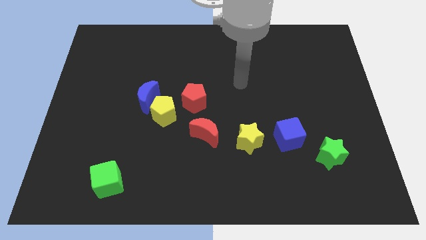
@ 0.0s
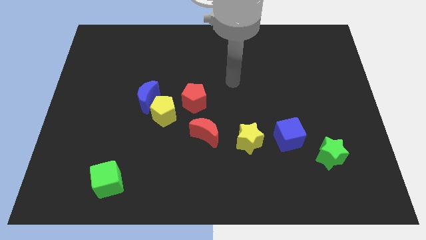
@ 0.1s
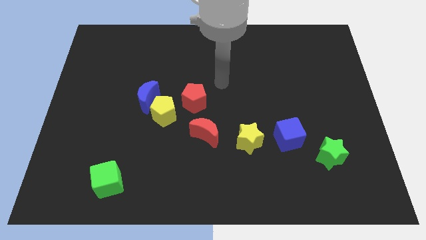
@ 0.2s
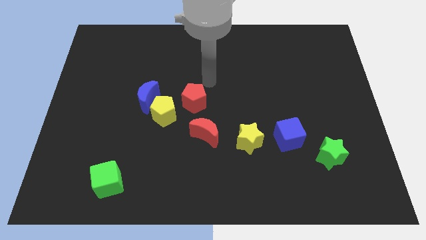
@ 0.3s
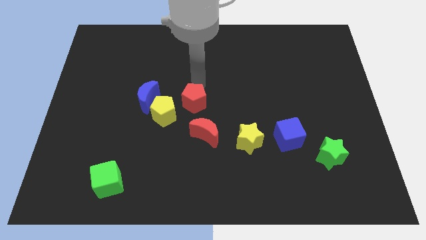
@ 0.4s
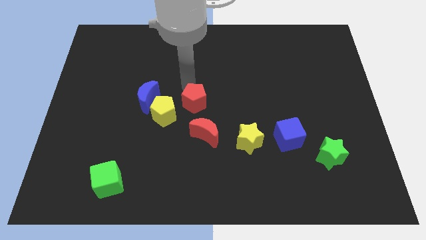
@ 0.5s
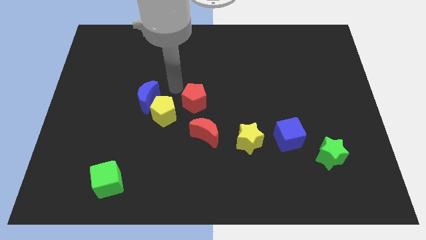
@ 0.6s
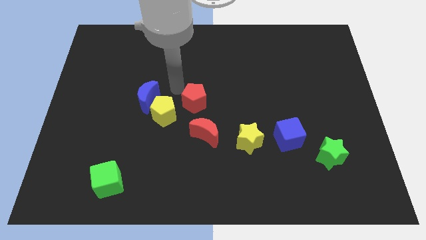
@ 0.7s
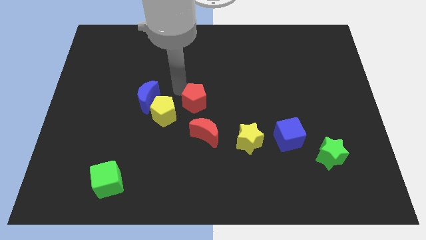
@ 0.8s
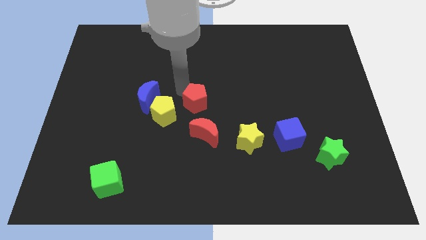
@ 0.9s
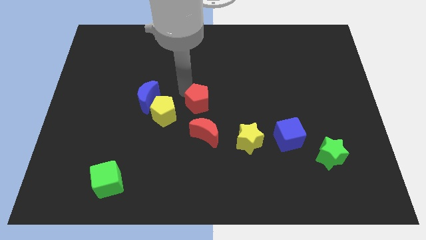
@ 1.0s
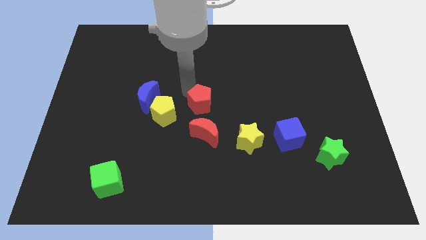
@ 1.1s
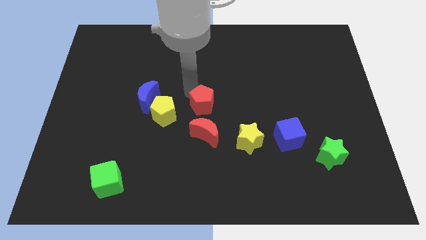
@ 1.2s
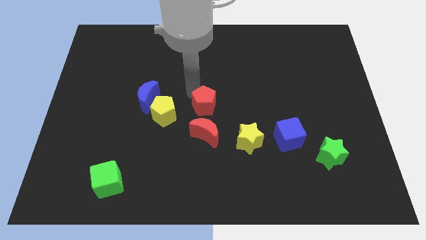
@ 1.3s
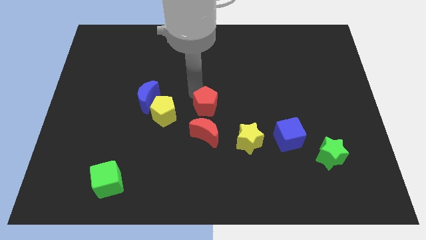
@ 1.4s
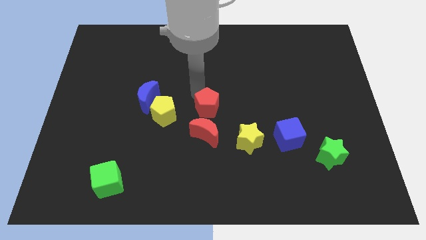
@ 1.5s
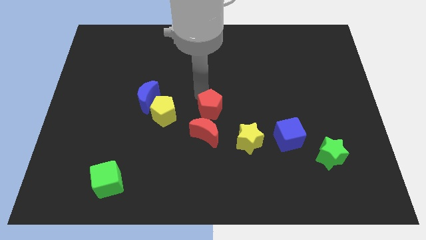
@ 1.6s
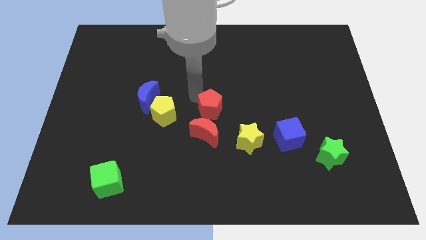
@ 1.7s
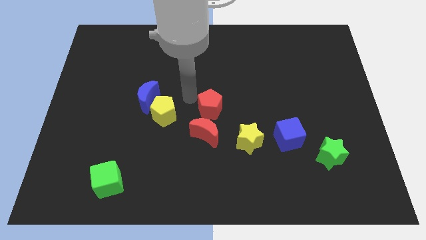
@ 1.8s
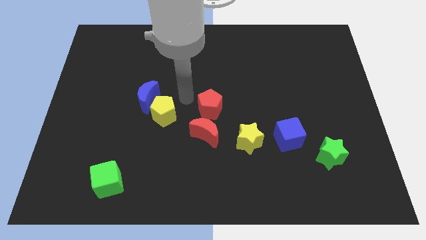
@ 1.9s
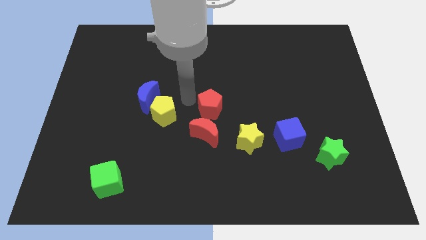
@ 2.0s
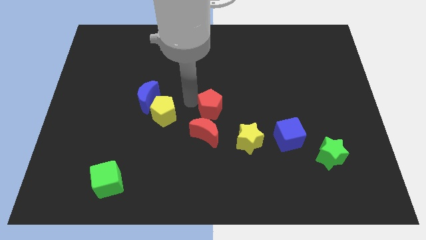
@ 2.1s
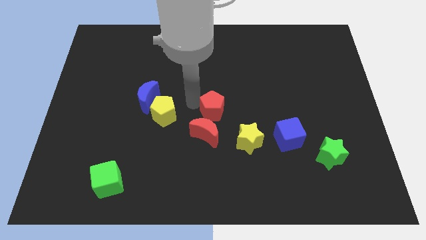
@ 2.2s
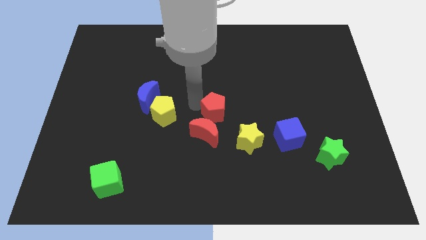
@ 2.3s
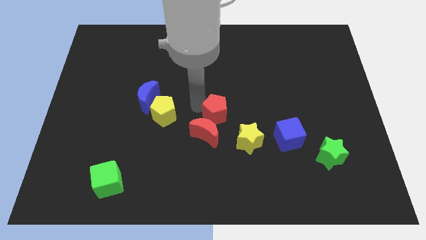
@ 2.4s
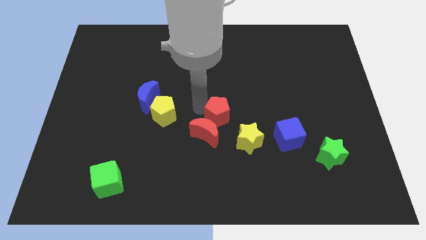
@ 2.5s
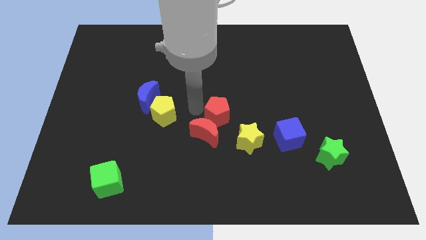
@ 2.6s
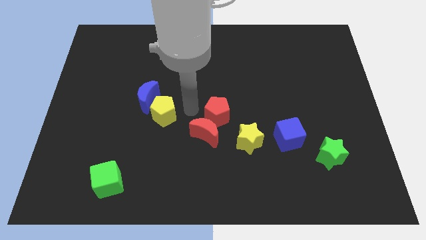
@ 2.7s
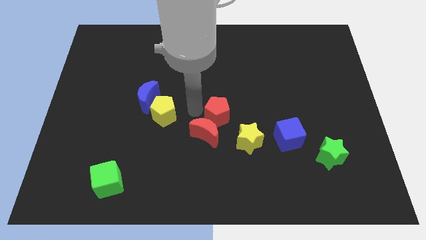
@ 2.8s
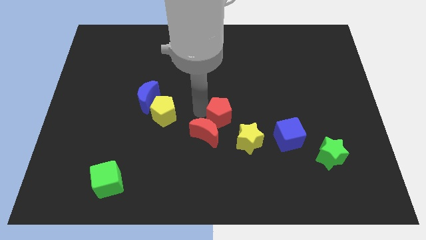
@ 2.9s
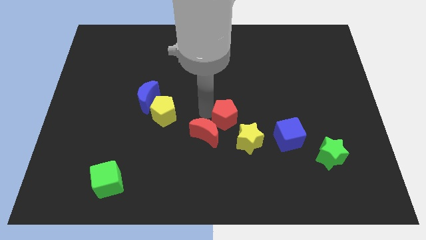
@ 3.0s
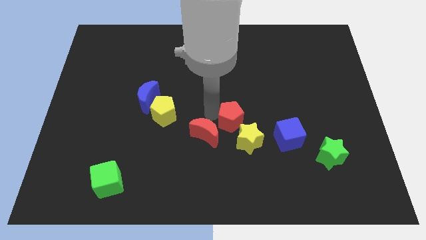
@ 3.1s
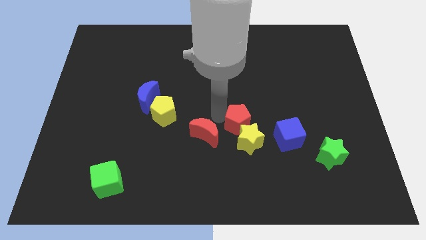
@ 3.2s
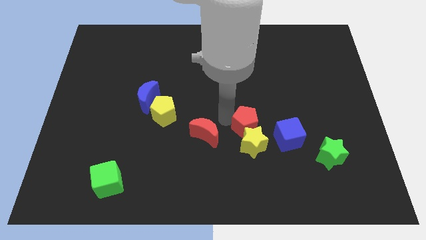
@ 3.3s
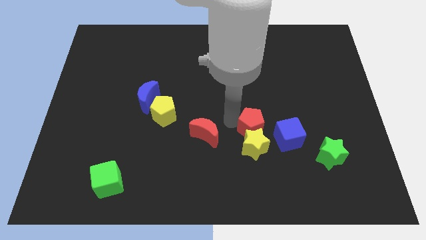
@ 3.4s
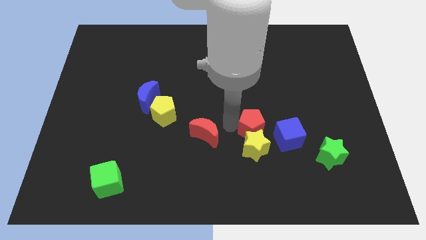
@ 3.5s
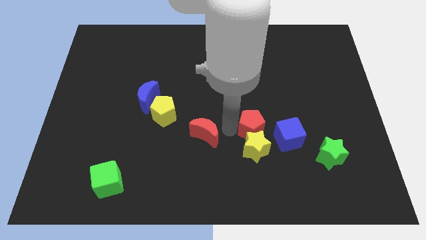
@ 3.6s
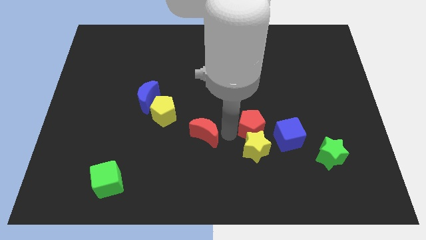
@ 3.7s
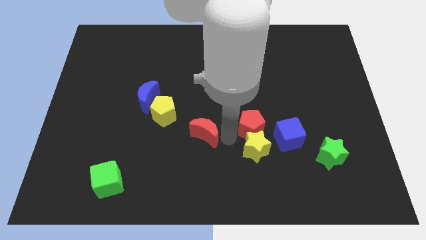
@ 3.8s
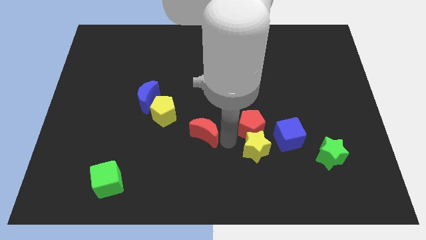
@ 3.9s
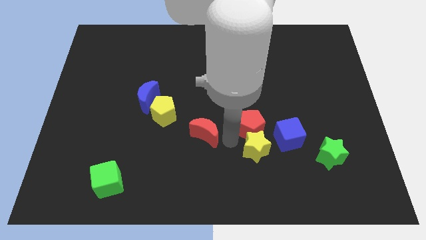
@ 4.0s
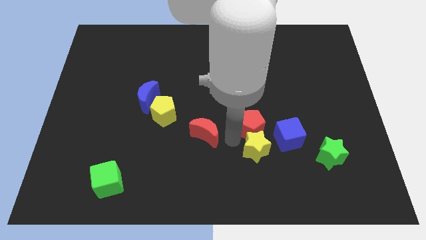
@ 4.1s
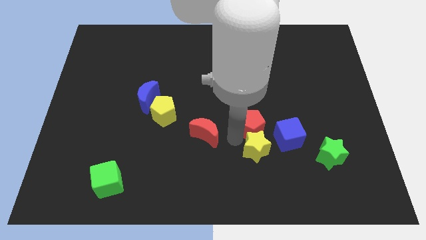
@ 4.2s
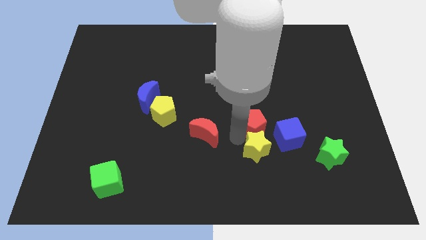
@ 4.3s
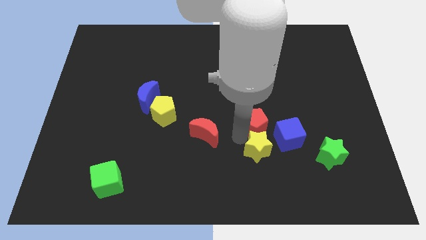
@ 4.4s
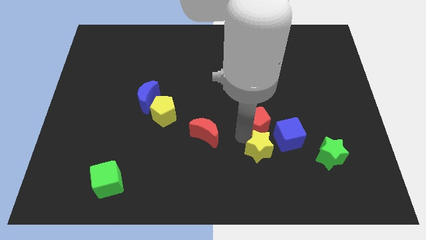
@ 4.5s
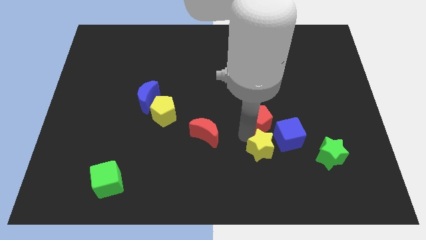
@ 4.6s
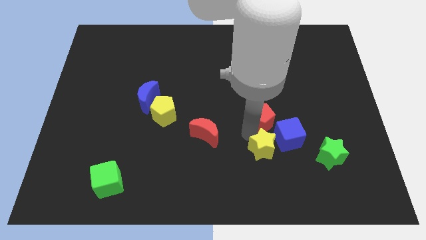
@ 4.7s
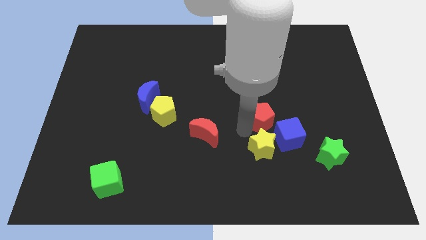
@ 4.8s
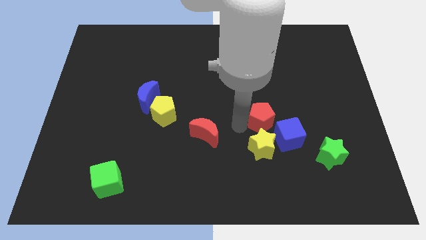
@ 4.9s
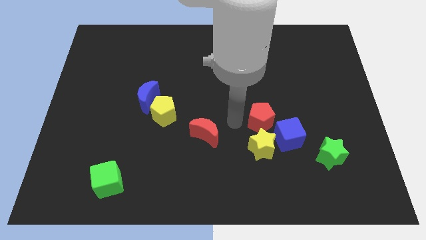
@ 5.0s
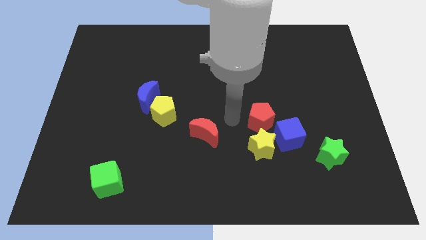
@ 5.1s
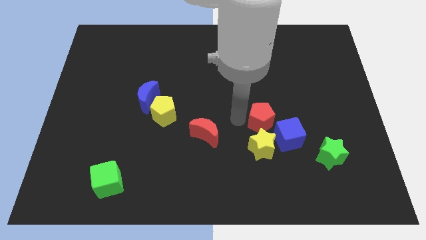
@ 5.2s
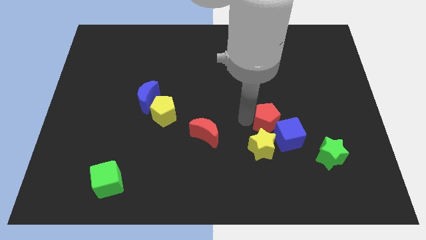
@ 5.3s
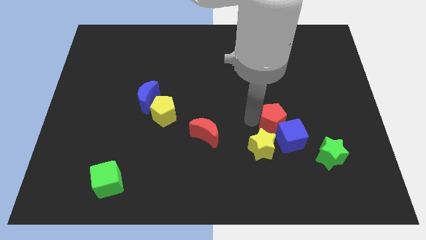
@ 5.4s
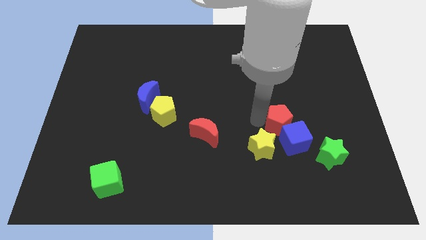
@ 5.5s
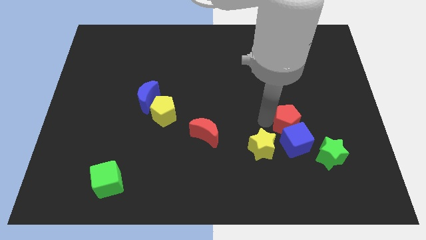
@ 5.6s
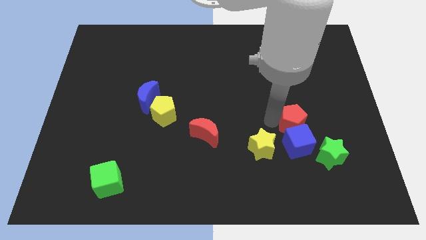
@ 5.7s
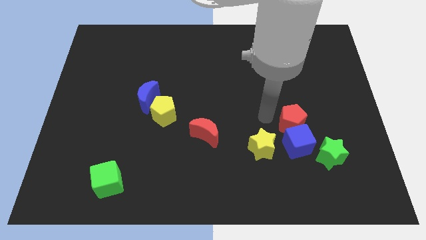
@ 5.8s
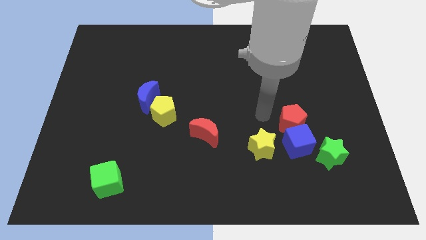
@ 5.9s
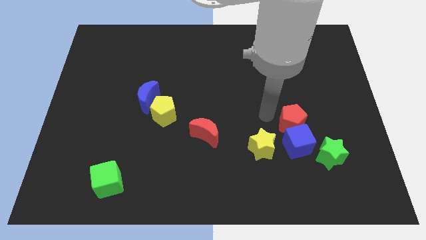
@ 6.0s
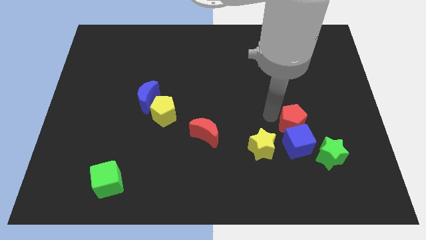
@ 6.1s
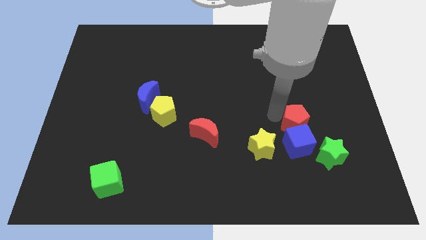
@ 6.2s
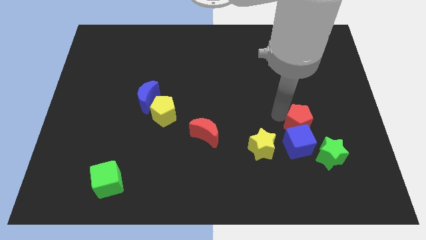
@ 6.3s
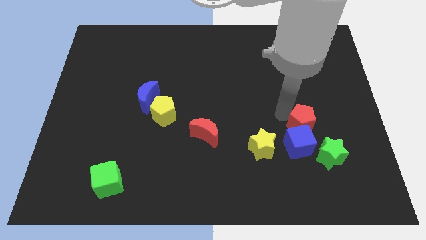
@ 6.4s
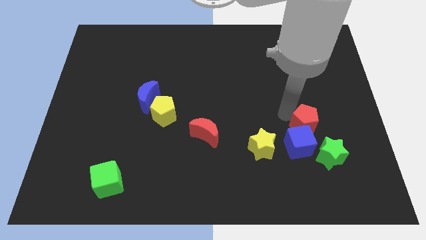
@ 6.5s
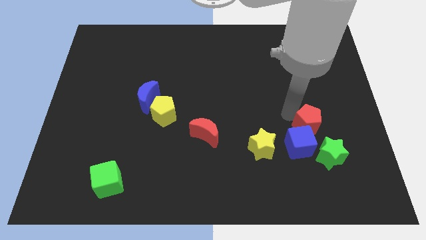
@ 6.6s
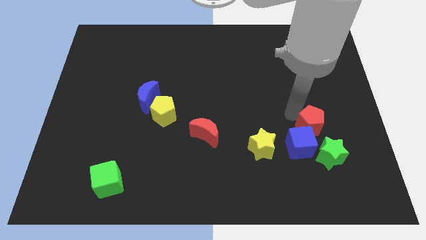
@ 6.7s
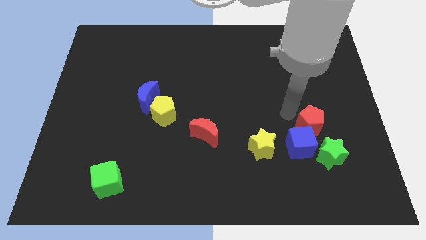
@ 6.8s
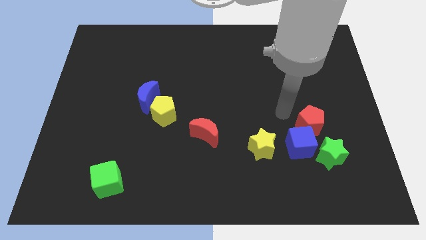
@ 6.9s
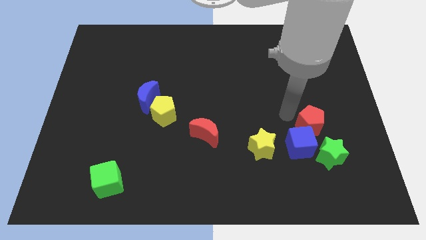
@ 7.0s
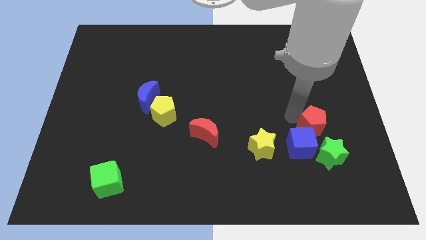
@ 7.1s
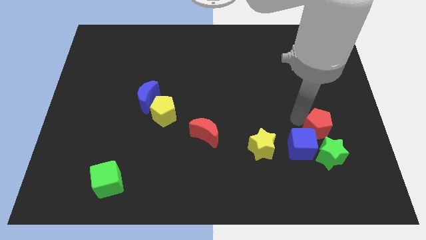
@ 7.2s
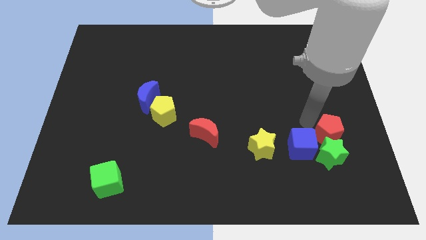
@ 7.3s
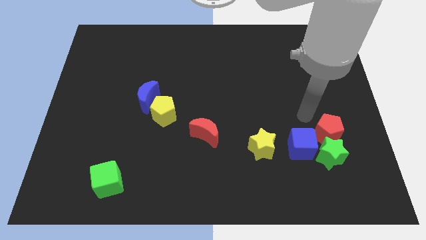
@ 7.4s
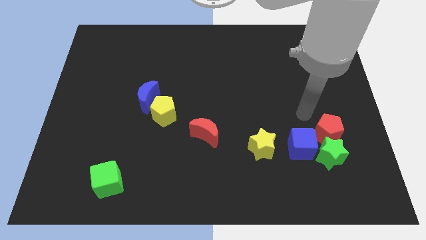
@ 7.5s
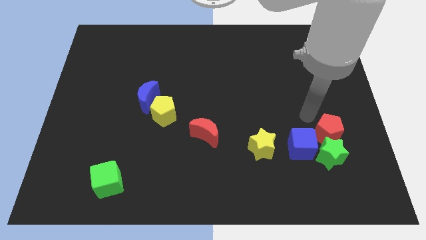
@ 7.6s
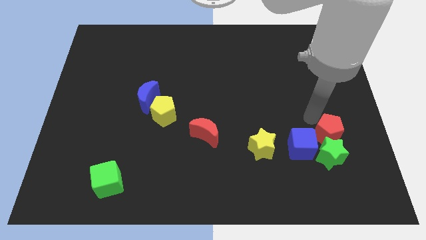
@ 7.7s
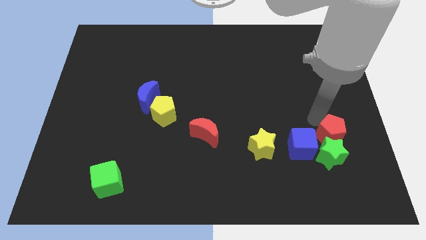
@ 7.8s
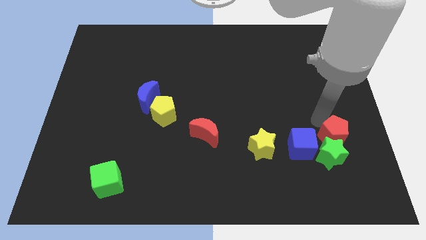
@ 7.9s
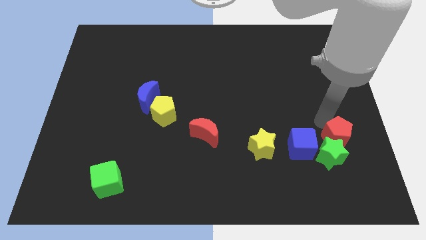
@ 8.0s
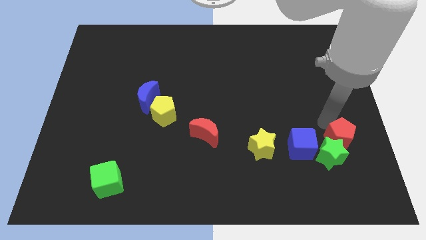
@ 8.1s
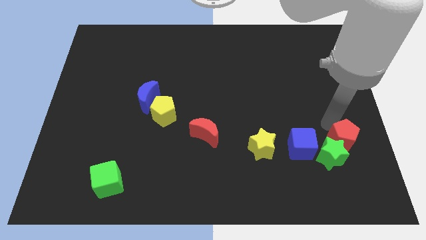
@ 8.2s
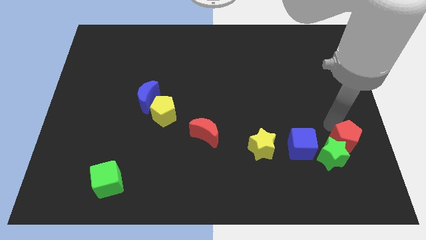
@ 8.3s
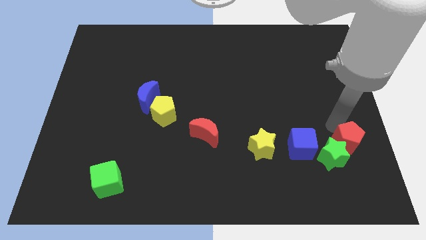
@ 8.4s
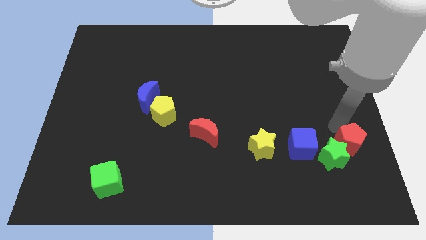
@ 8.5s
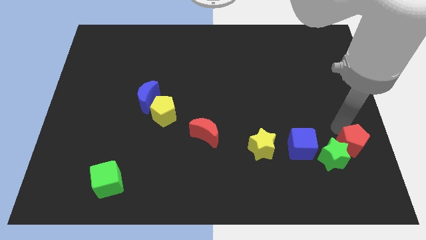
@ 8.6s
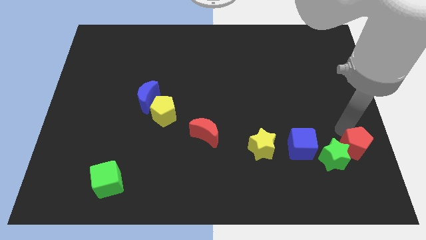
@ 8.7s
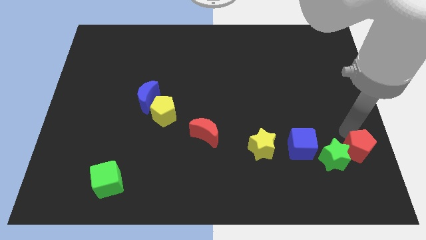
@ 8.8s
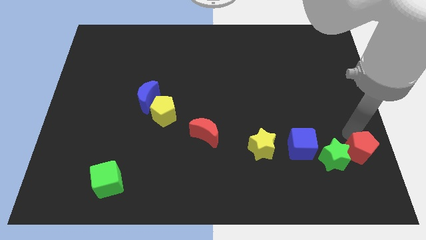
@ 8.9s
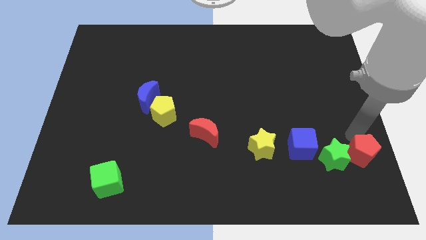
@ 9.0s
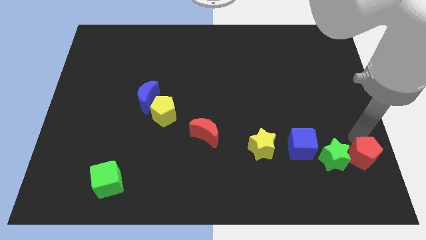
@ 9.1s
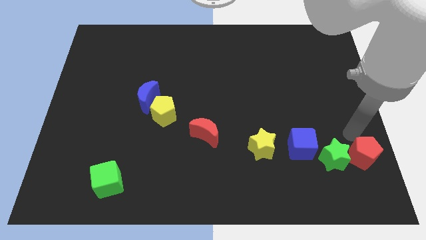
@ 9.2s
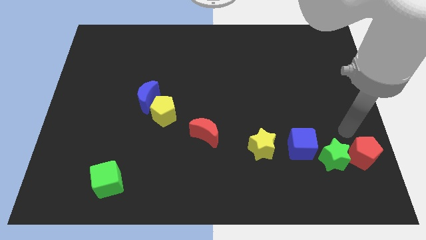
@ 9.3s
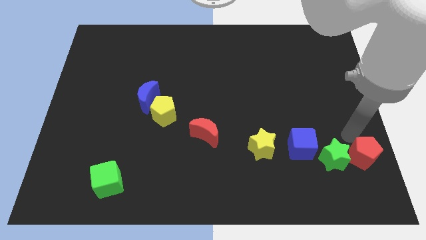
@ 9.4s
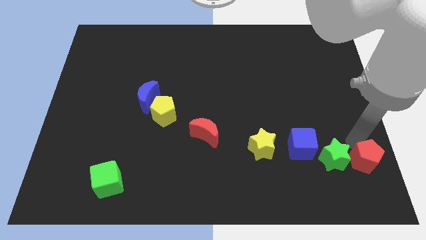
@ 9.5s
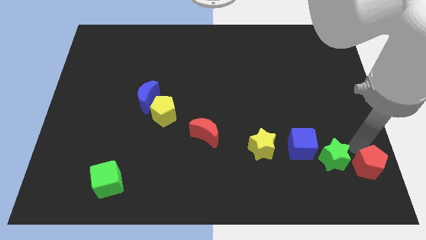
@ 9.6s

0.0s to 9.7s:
put the red pentagon to the bottom right
